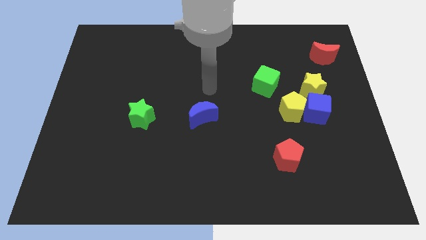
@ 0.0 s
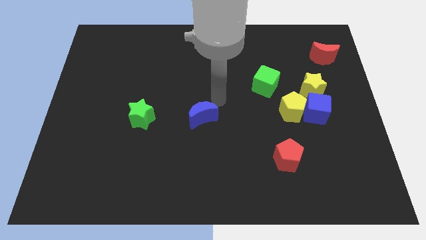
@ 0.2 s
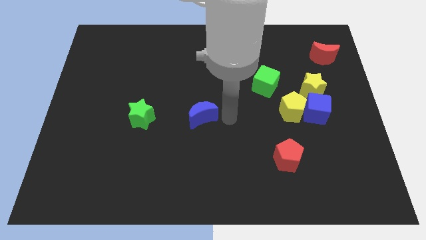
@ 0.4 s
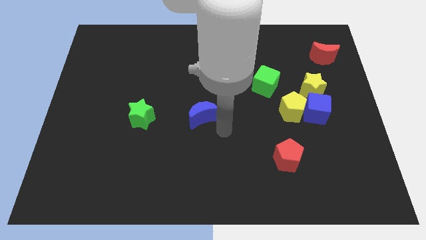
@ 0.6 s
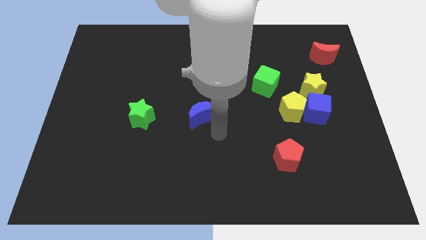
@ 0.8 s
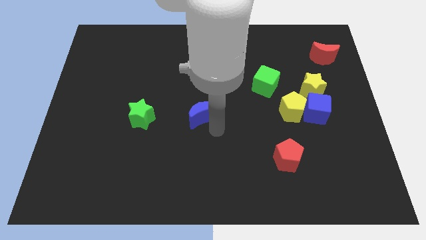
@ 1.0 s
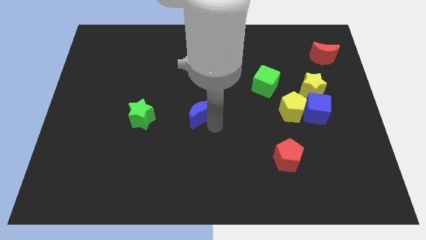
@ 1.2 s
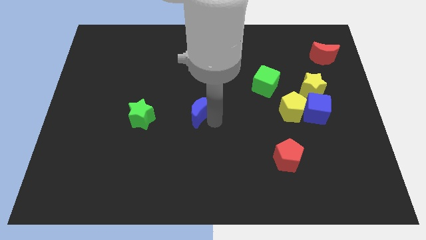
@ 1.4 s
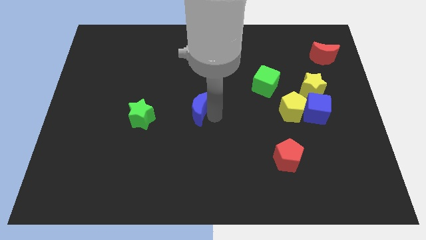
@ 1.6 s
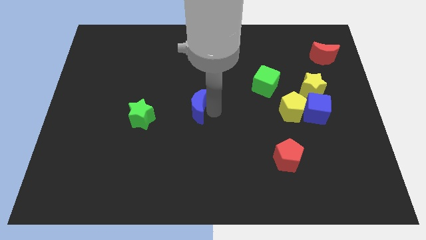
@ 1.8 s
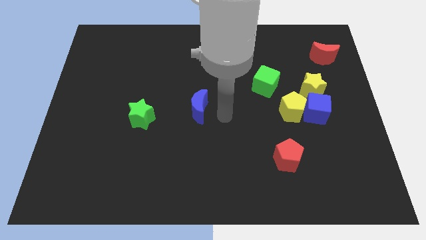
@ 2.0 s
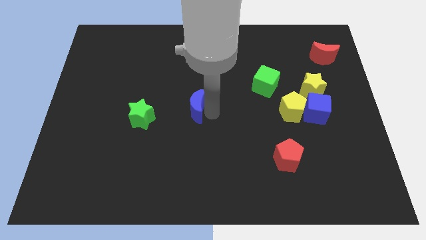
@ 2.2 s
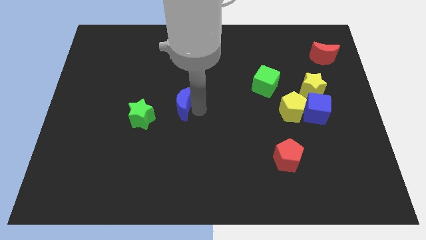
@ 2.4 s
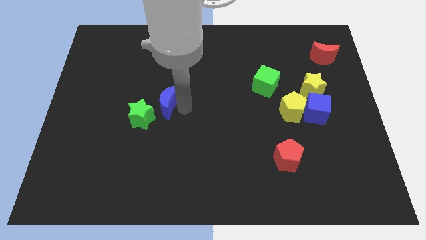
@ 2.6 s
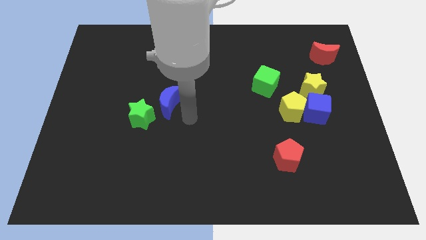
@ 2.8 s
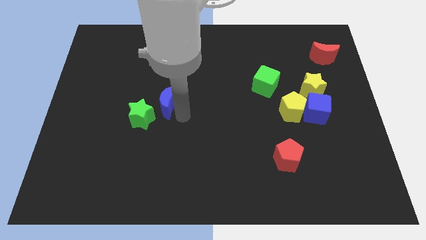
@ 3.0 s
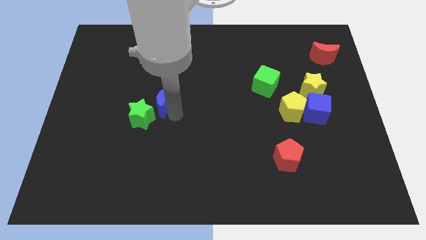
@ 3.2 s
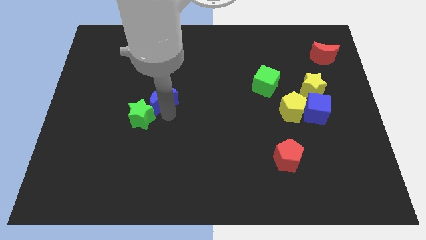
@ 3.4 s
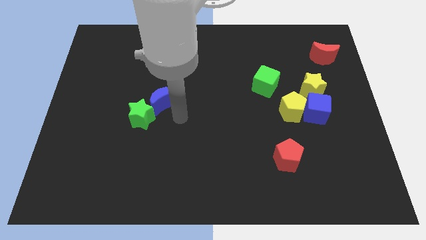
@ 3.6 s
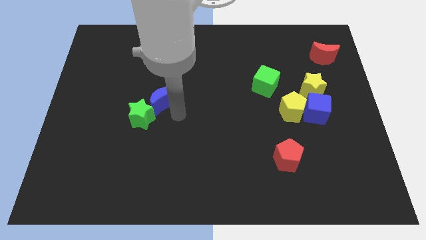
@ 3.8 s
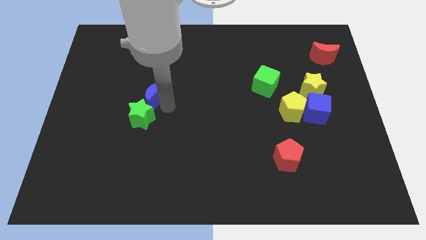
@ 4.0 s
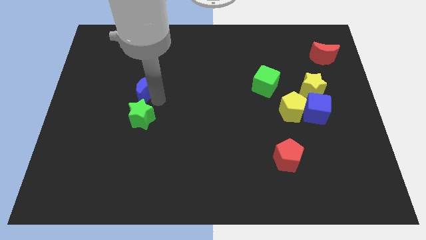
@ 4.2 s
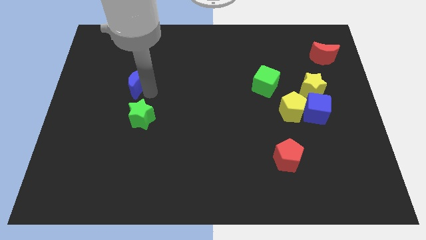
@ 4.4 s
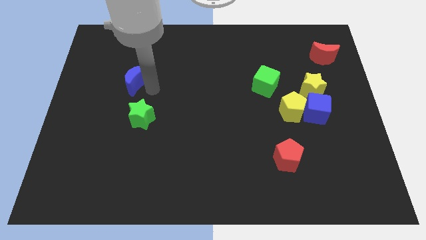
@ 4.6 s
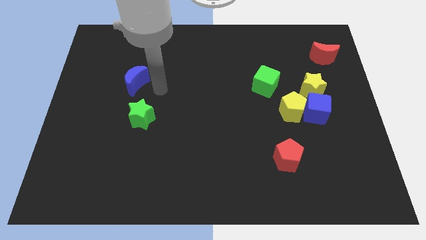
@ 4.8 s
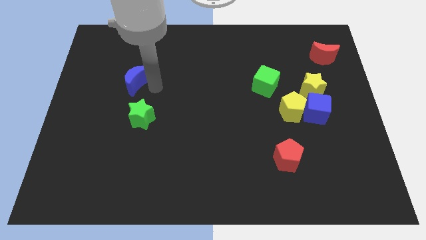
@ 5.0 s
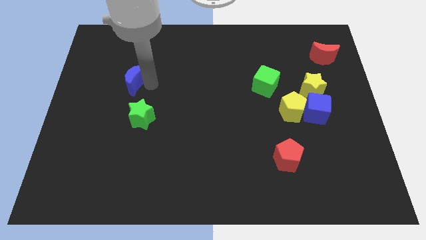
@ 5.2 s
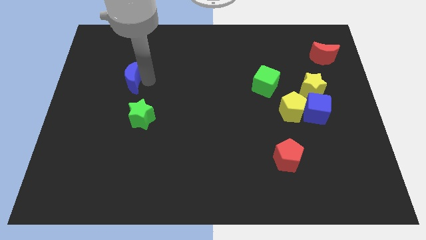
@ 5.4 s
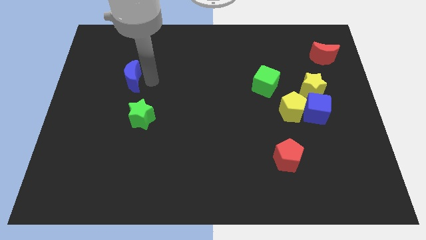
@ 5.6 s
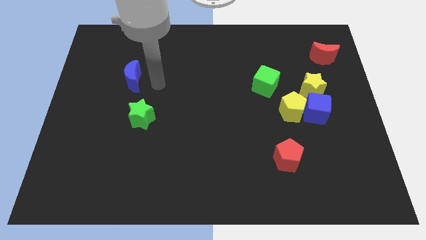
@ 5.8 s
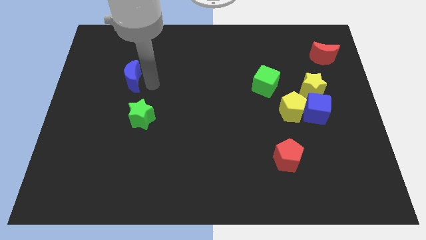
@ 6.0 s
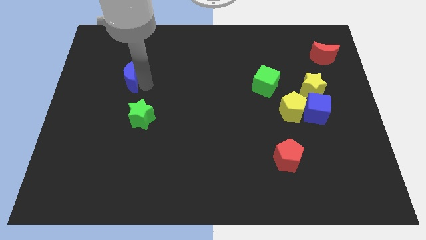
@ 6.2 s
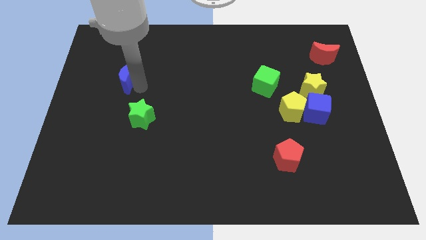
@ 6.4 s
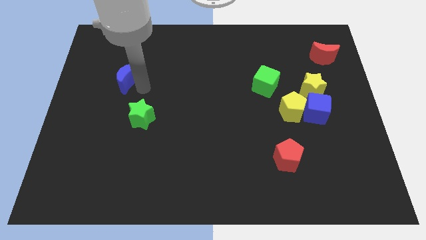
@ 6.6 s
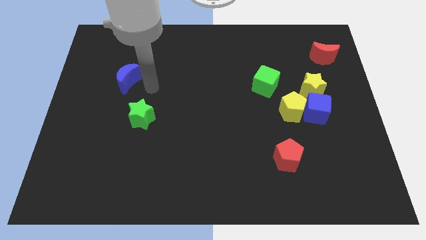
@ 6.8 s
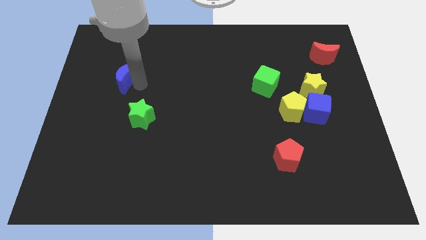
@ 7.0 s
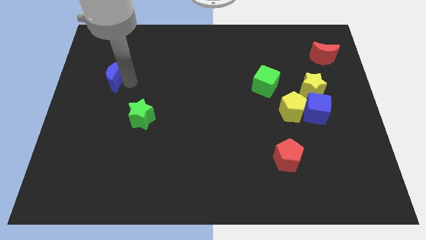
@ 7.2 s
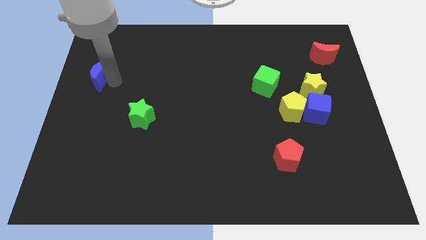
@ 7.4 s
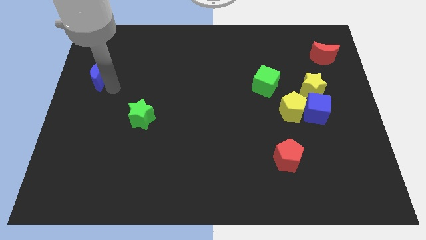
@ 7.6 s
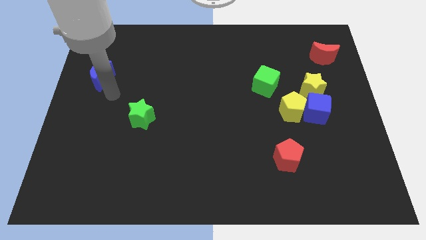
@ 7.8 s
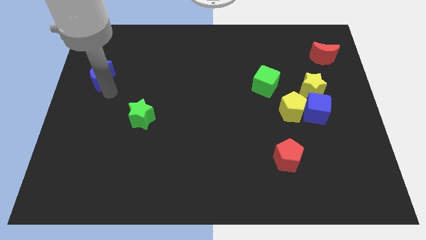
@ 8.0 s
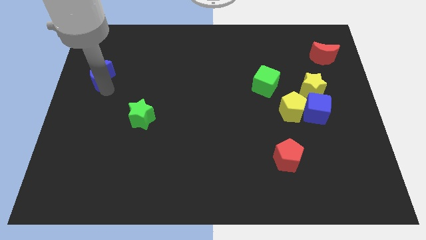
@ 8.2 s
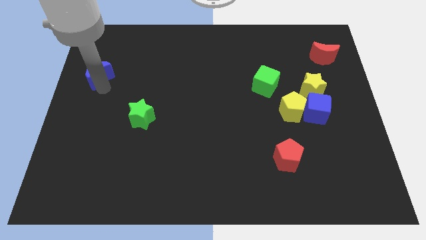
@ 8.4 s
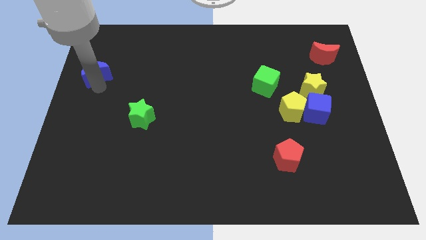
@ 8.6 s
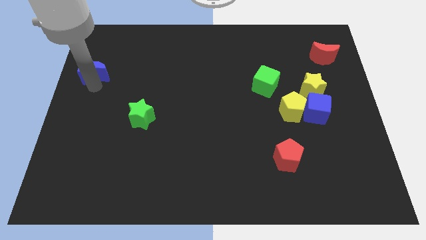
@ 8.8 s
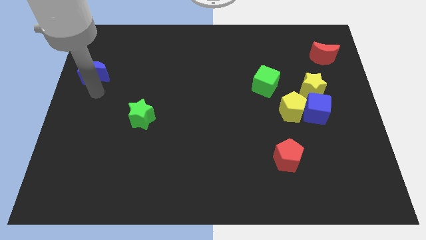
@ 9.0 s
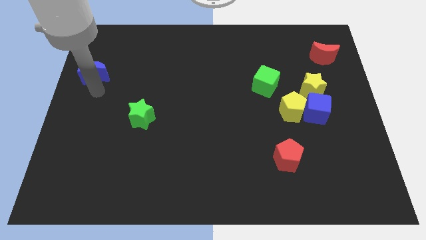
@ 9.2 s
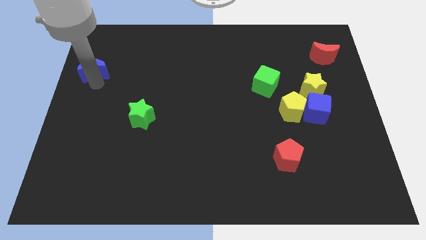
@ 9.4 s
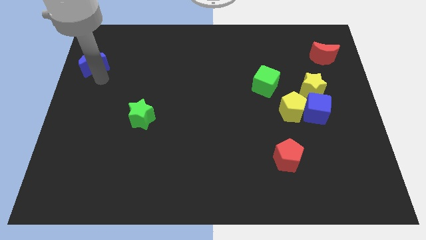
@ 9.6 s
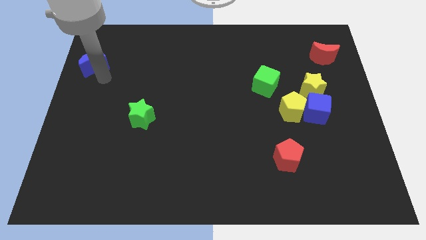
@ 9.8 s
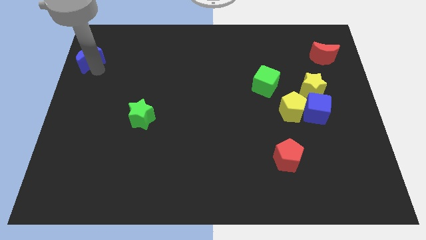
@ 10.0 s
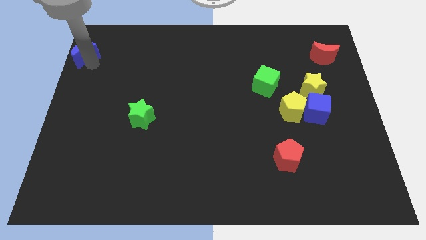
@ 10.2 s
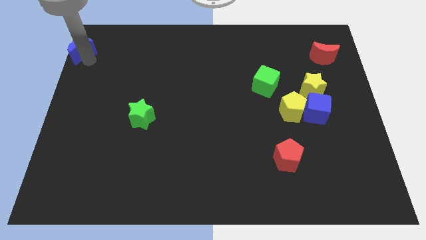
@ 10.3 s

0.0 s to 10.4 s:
put the blue moon to the top left of the board

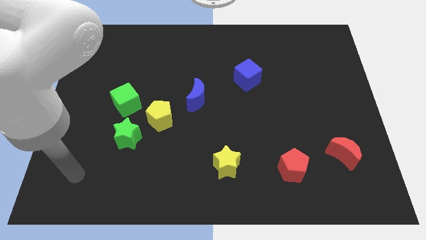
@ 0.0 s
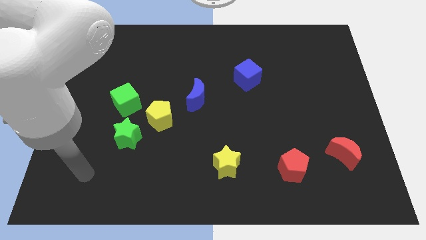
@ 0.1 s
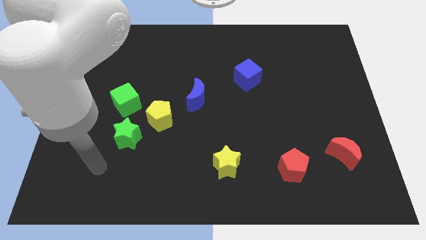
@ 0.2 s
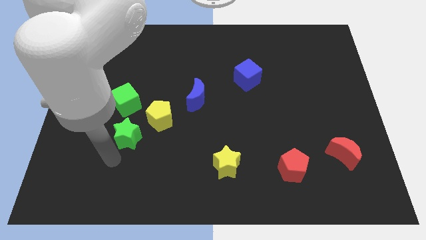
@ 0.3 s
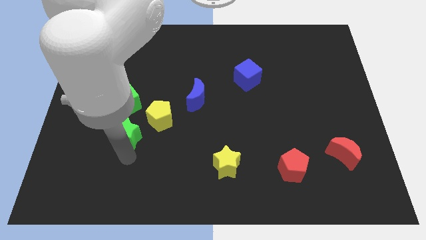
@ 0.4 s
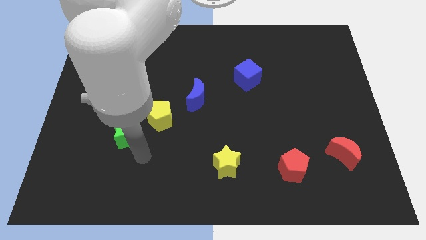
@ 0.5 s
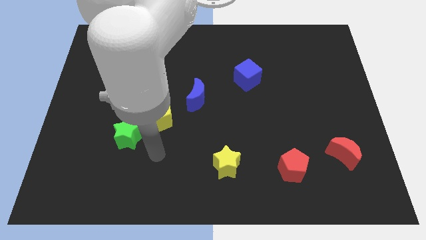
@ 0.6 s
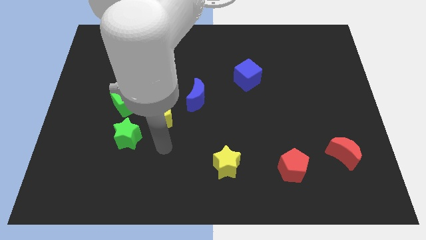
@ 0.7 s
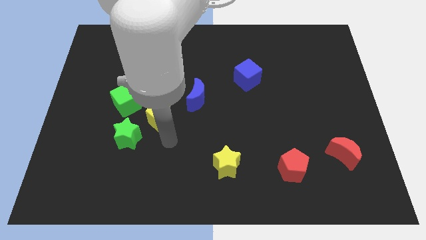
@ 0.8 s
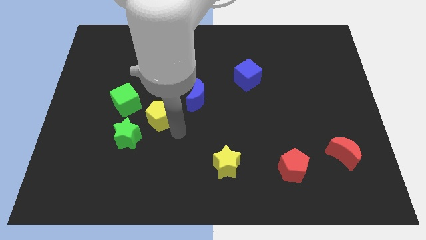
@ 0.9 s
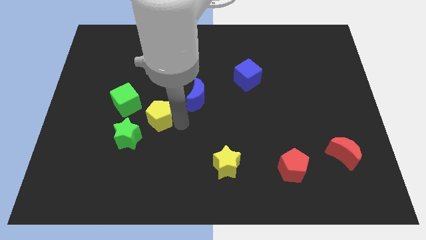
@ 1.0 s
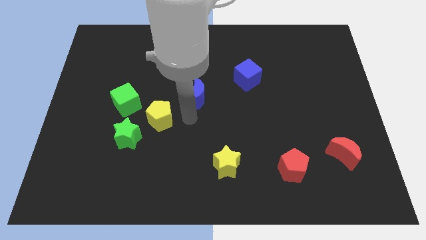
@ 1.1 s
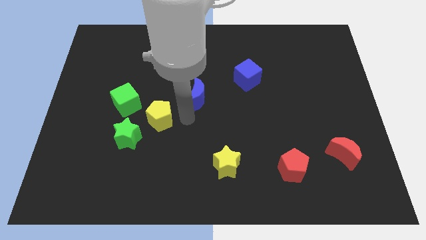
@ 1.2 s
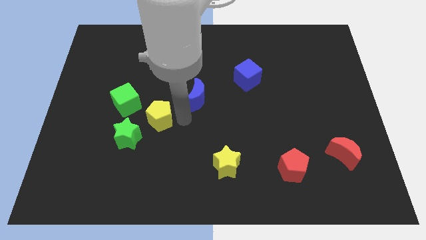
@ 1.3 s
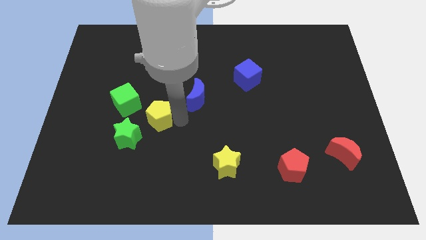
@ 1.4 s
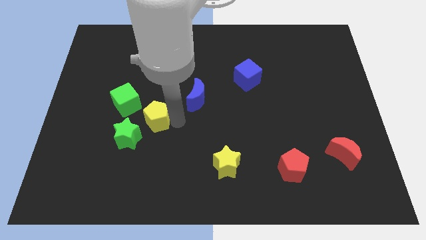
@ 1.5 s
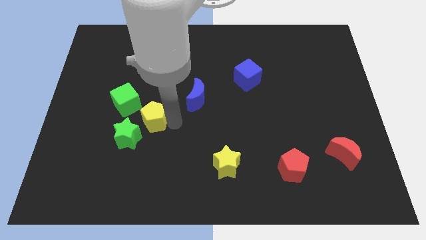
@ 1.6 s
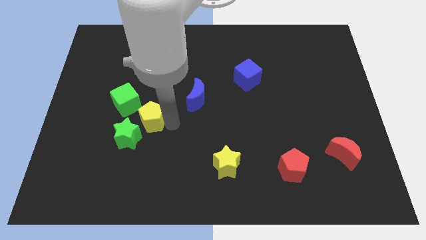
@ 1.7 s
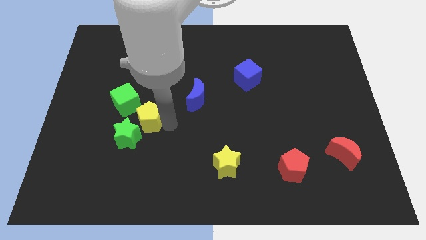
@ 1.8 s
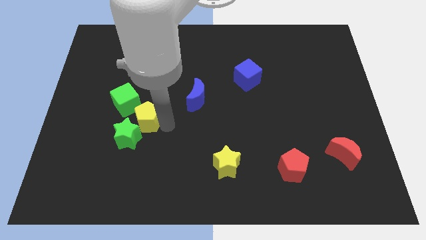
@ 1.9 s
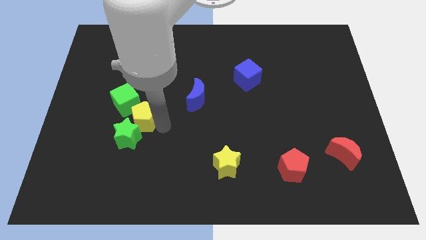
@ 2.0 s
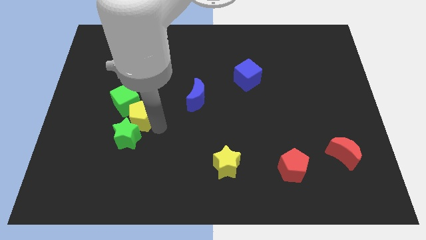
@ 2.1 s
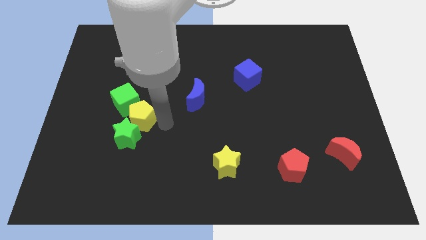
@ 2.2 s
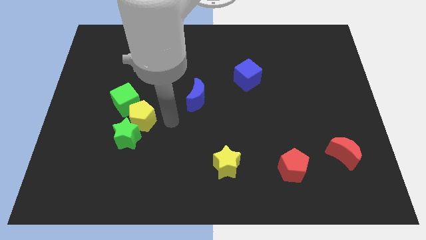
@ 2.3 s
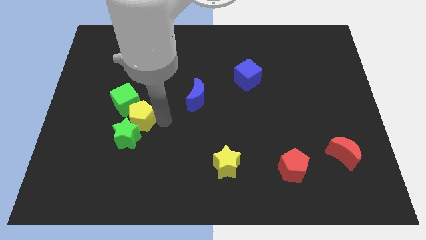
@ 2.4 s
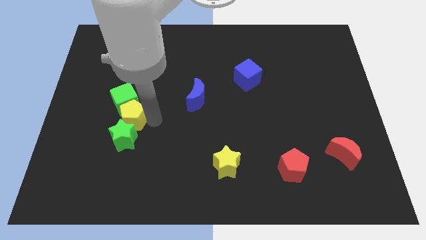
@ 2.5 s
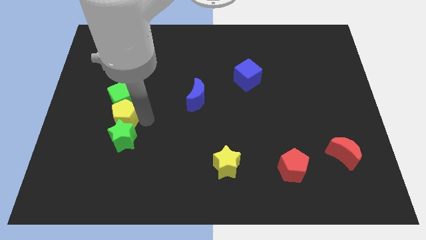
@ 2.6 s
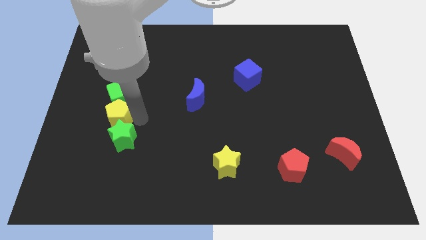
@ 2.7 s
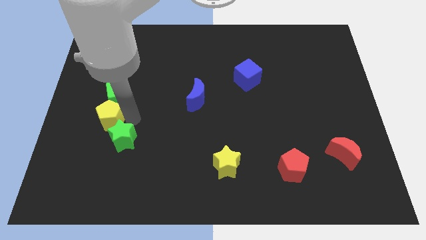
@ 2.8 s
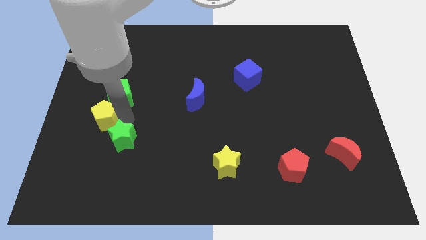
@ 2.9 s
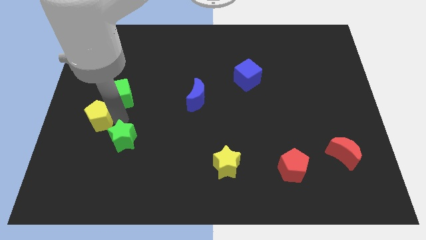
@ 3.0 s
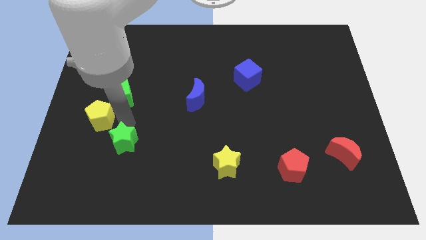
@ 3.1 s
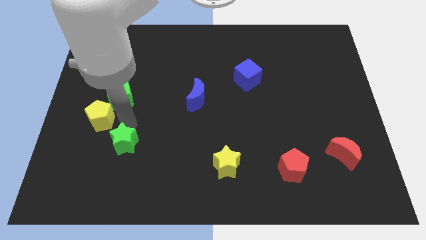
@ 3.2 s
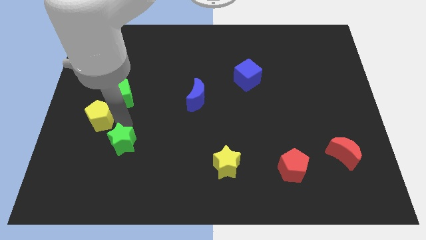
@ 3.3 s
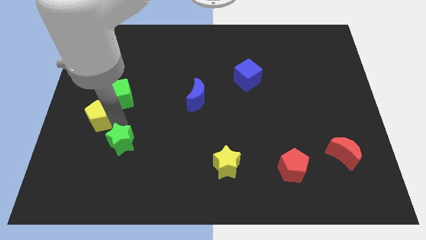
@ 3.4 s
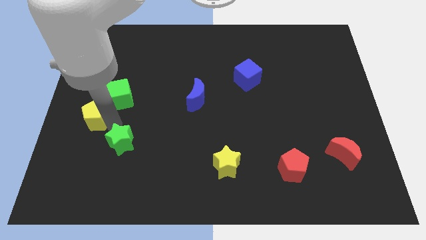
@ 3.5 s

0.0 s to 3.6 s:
push the yellow pentagon to the left side of the board
